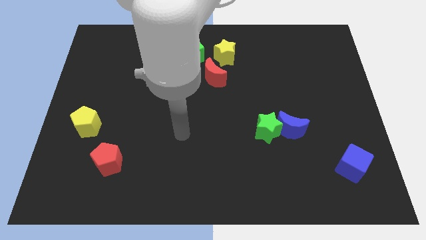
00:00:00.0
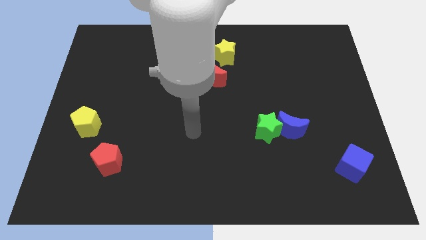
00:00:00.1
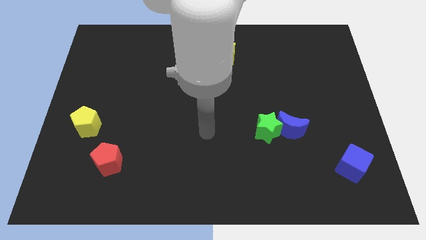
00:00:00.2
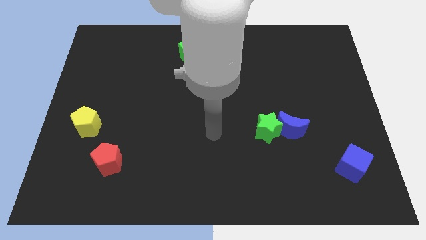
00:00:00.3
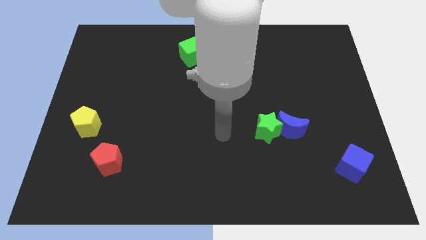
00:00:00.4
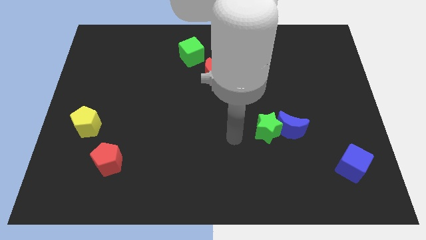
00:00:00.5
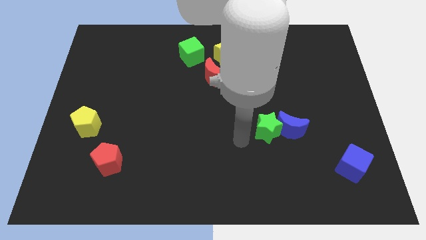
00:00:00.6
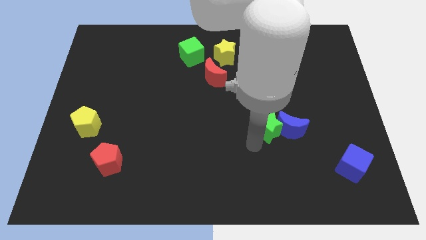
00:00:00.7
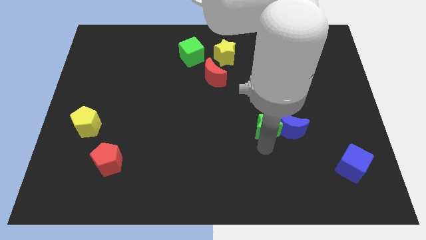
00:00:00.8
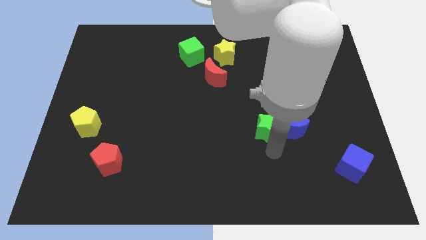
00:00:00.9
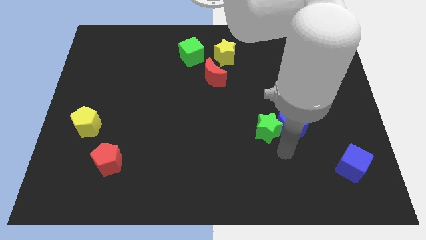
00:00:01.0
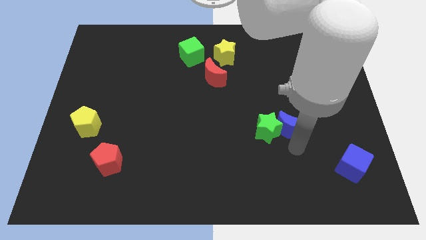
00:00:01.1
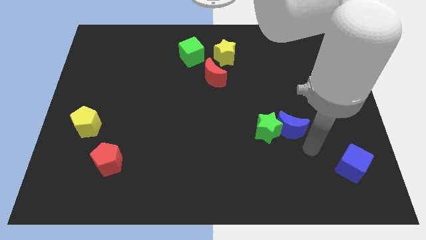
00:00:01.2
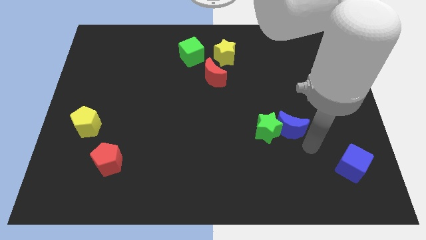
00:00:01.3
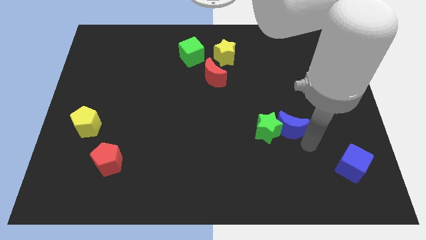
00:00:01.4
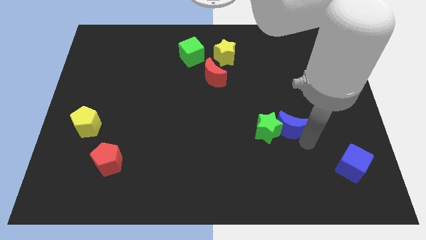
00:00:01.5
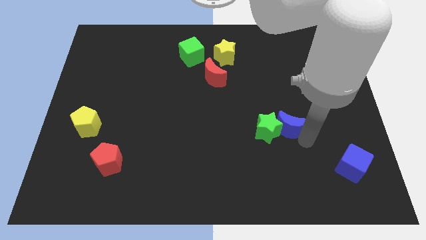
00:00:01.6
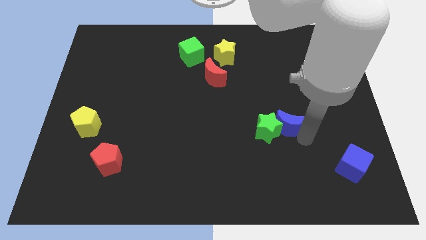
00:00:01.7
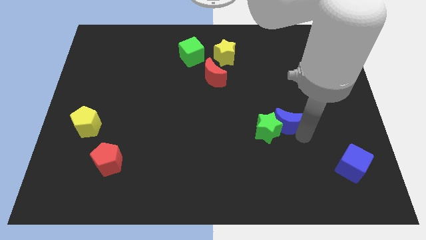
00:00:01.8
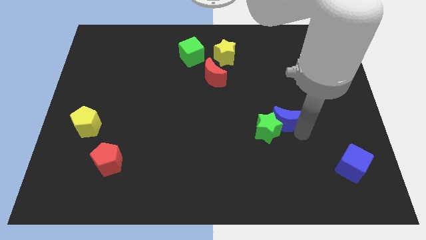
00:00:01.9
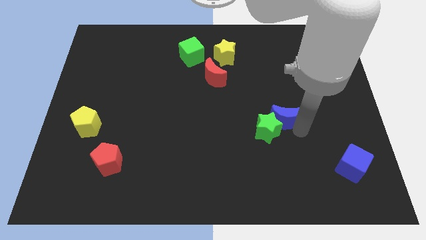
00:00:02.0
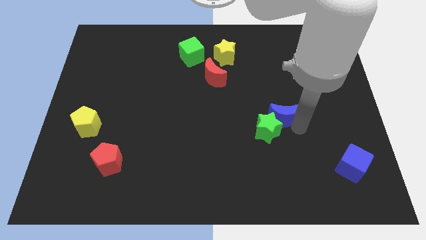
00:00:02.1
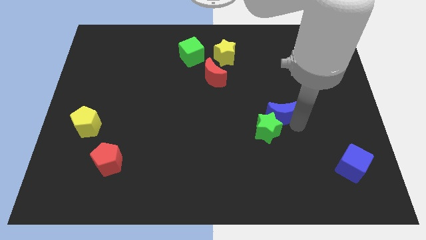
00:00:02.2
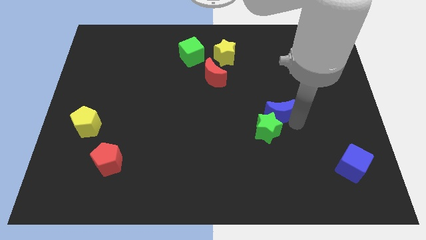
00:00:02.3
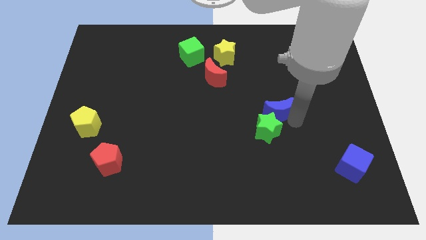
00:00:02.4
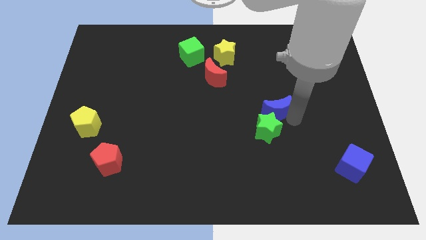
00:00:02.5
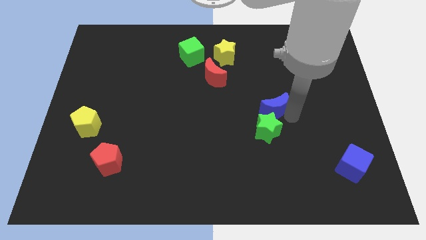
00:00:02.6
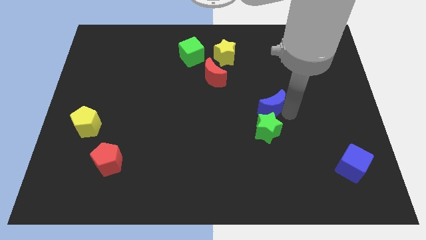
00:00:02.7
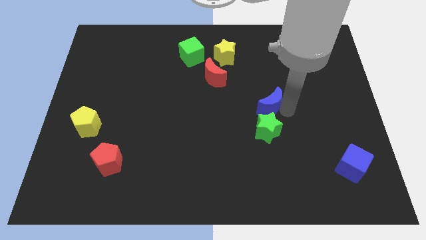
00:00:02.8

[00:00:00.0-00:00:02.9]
slightly slide the blue moon up and left diagonally

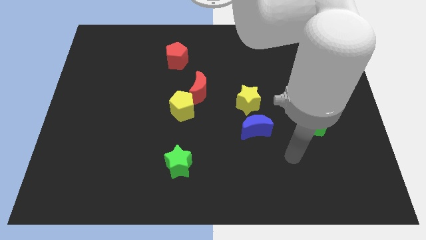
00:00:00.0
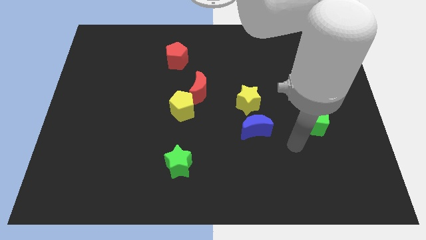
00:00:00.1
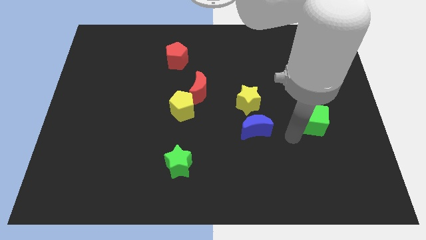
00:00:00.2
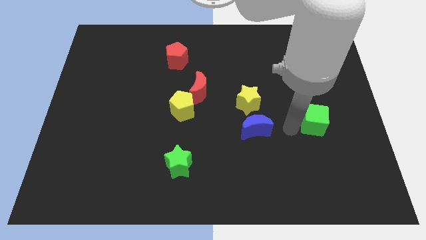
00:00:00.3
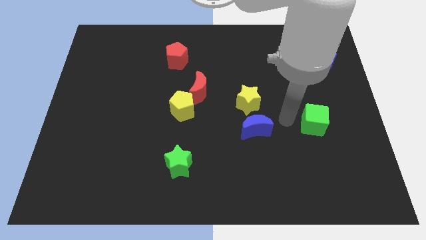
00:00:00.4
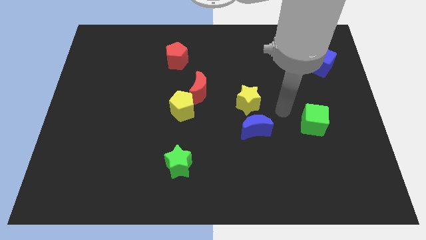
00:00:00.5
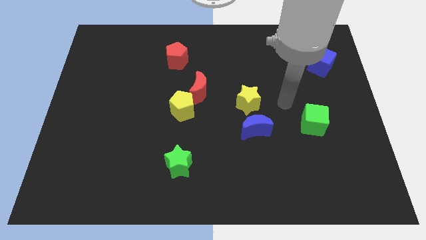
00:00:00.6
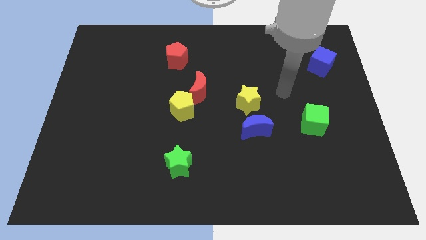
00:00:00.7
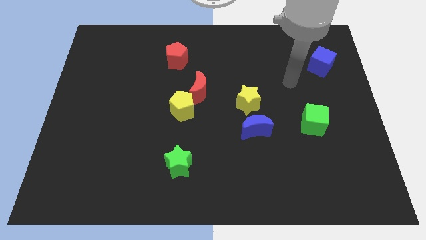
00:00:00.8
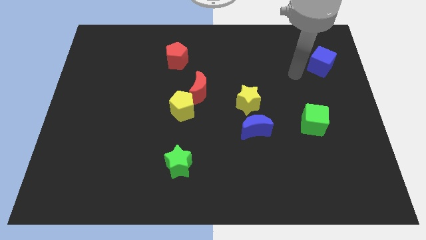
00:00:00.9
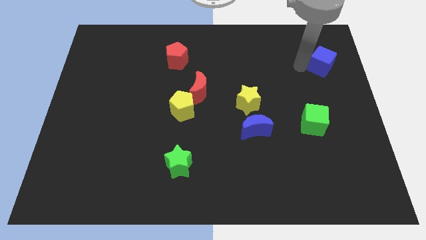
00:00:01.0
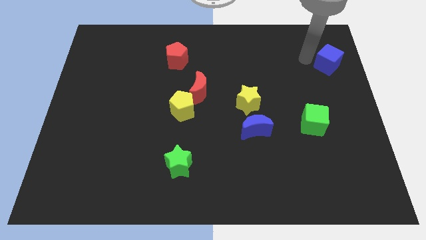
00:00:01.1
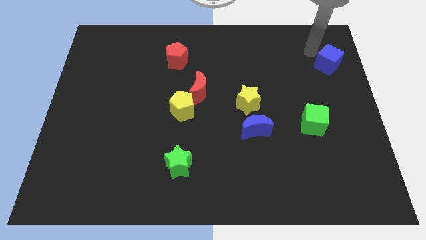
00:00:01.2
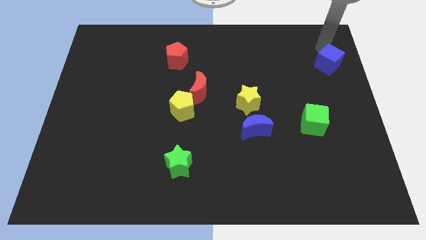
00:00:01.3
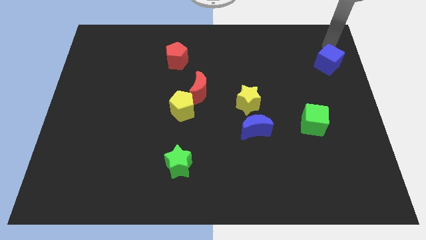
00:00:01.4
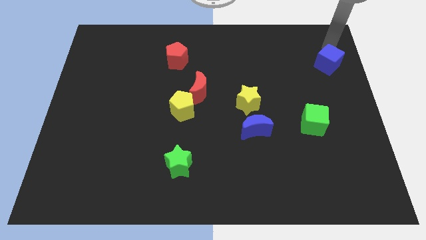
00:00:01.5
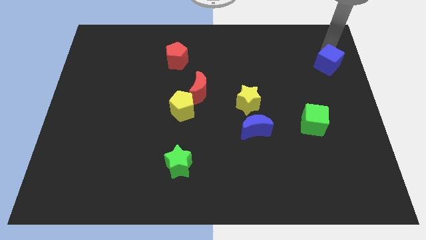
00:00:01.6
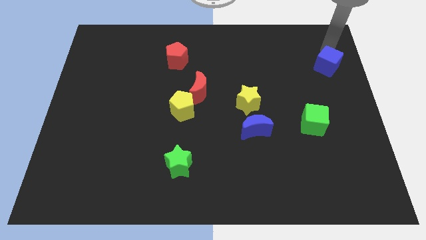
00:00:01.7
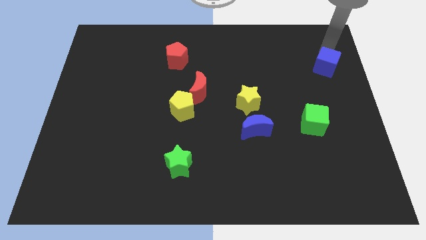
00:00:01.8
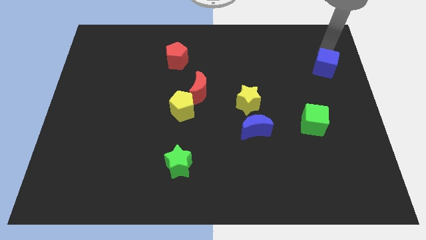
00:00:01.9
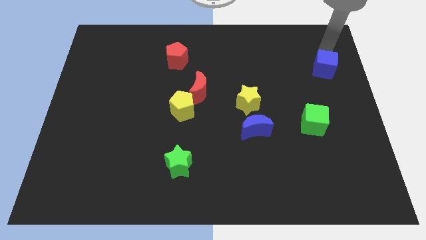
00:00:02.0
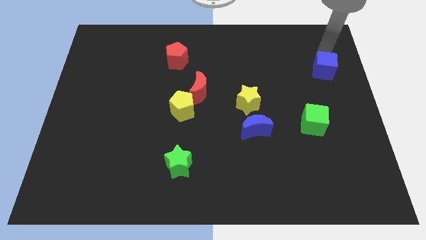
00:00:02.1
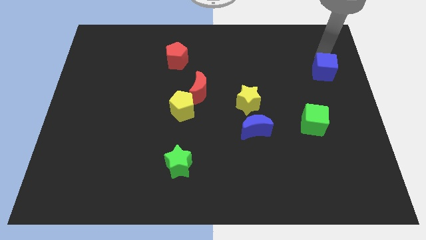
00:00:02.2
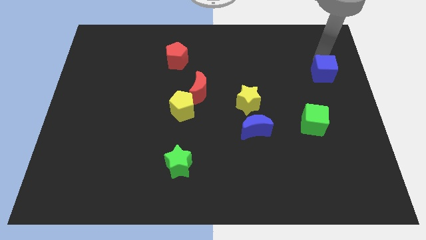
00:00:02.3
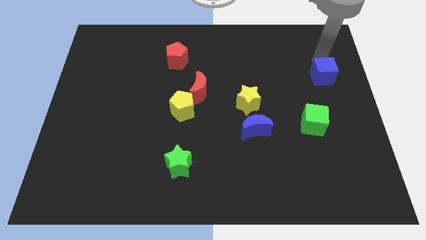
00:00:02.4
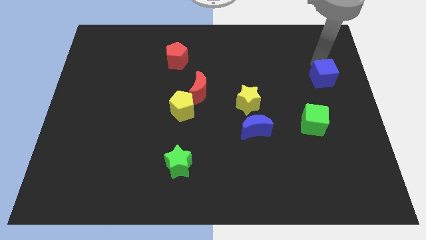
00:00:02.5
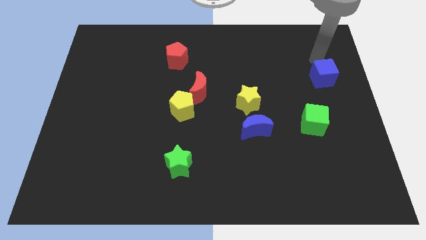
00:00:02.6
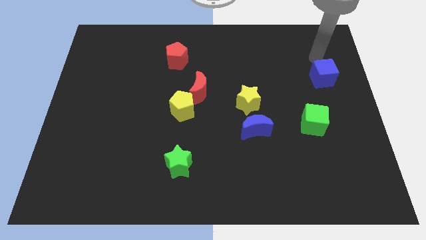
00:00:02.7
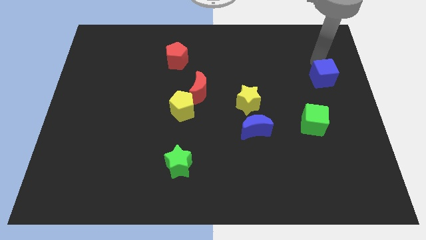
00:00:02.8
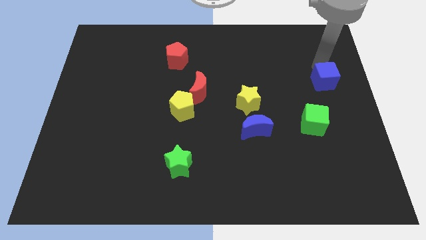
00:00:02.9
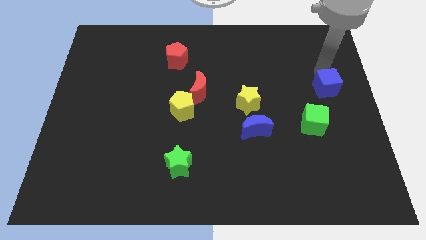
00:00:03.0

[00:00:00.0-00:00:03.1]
push the blue cube a bit down

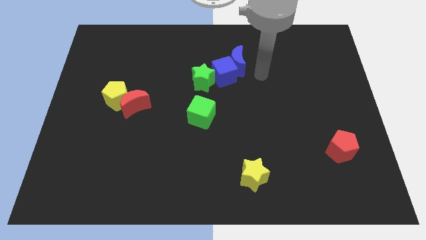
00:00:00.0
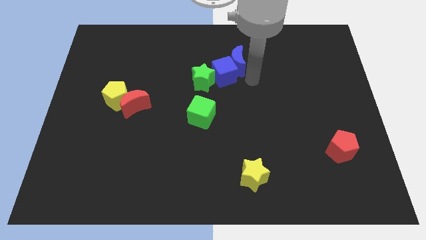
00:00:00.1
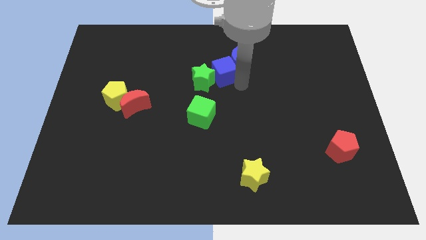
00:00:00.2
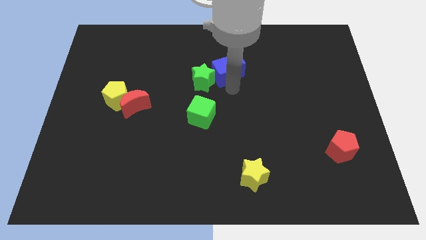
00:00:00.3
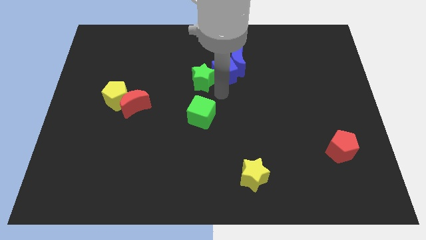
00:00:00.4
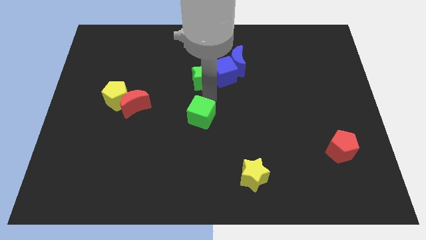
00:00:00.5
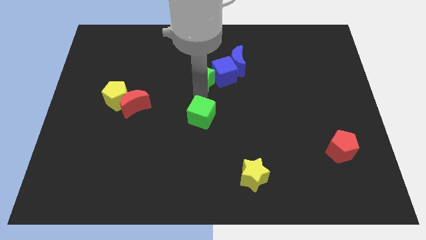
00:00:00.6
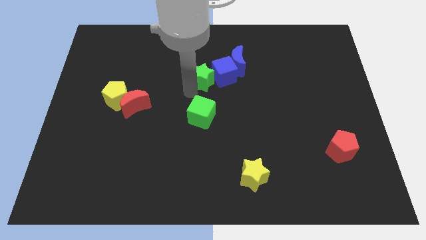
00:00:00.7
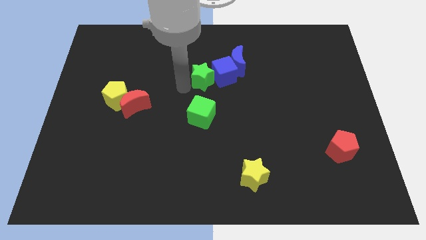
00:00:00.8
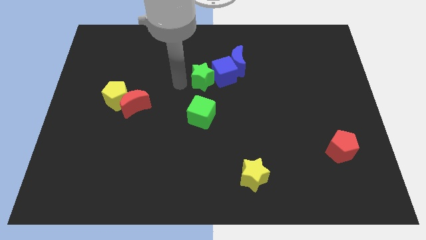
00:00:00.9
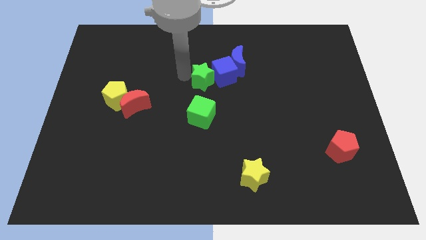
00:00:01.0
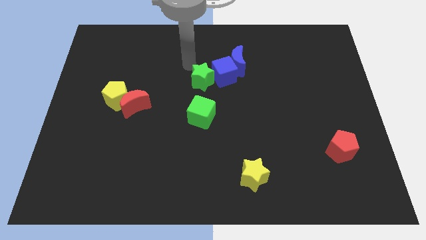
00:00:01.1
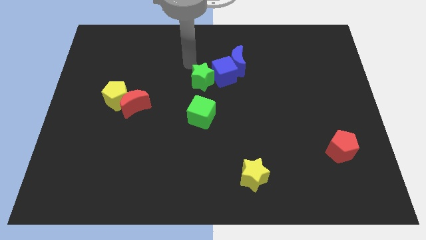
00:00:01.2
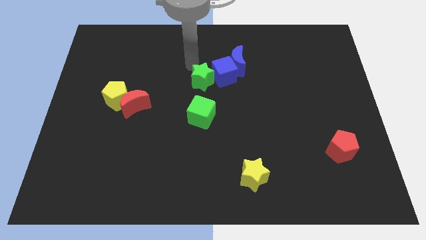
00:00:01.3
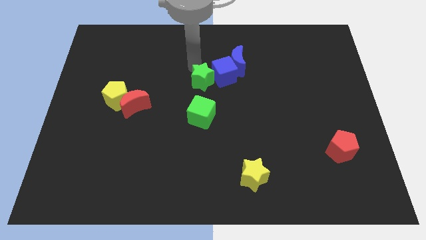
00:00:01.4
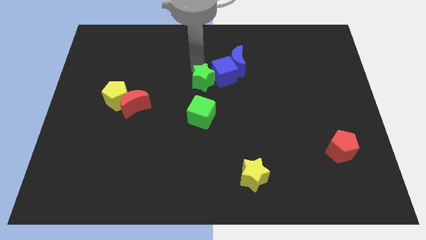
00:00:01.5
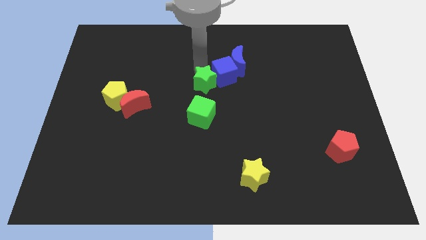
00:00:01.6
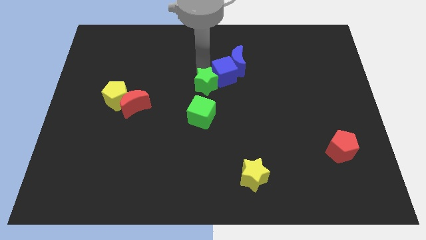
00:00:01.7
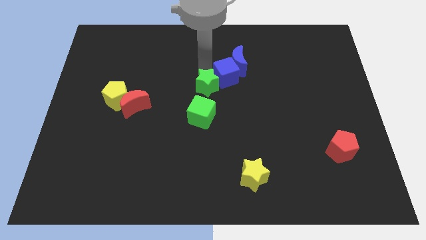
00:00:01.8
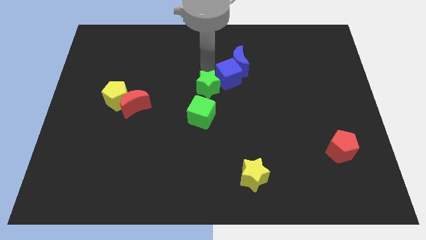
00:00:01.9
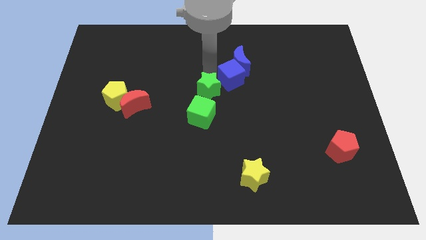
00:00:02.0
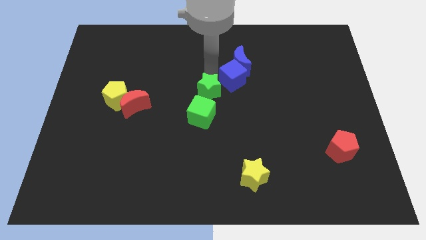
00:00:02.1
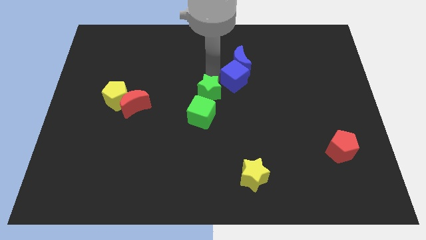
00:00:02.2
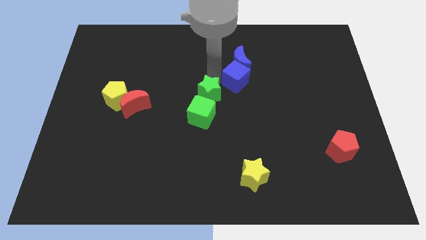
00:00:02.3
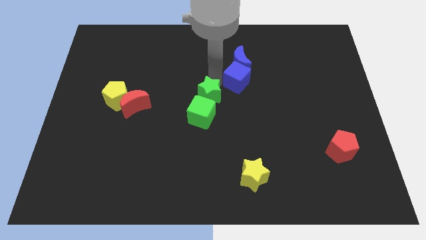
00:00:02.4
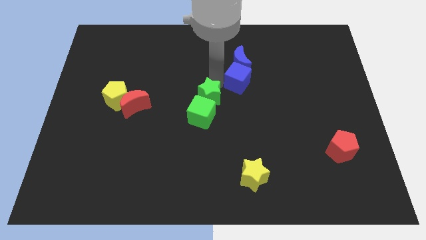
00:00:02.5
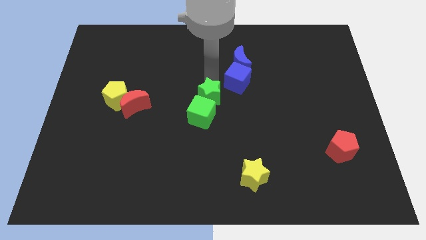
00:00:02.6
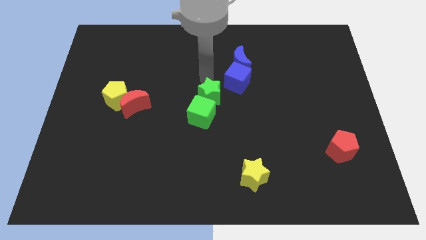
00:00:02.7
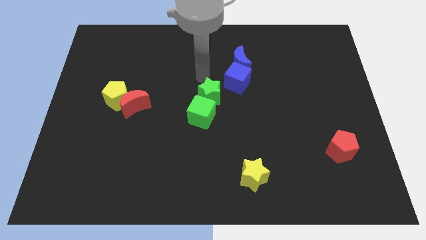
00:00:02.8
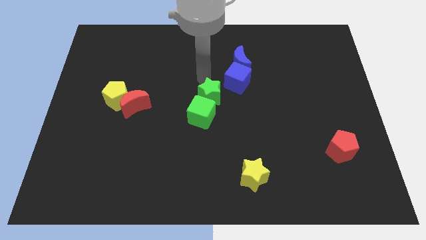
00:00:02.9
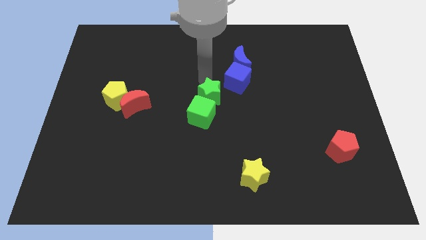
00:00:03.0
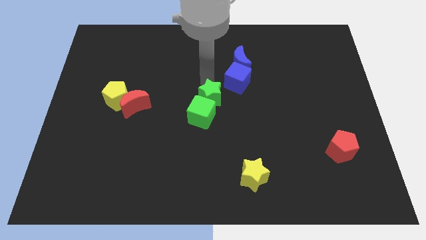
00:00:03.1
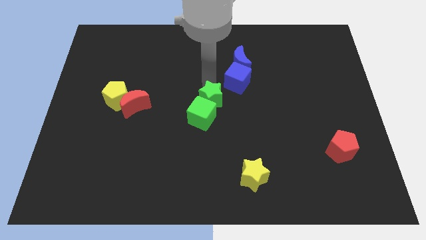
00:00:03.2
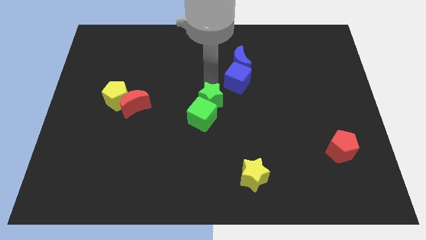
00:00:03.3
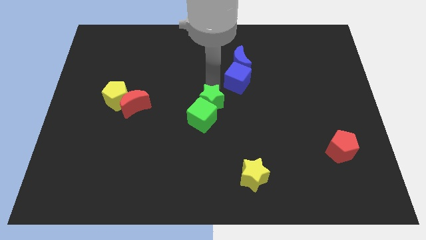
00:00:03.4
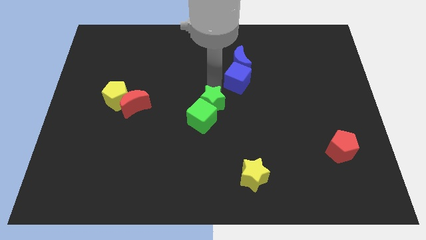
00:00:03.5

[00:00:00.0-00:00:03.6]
slide the green star a little downwards
